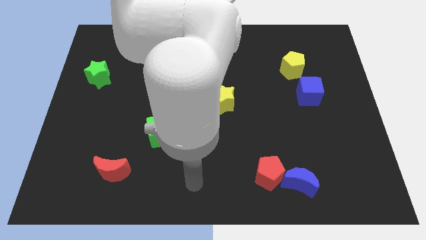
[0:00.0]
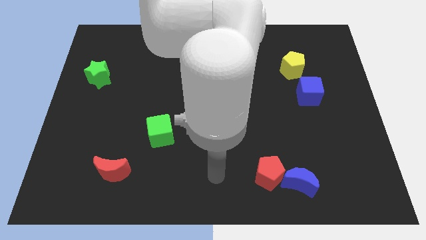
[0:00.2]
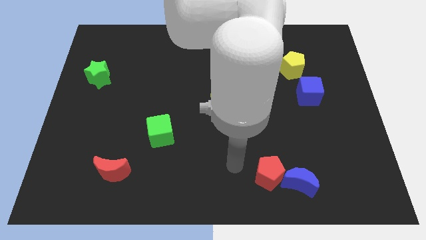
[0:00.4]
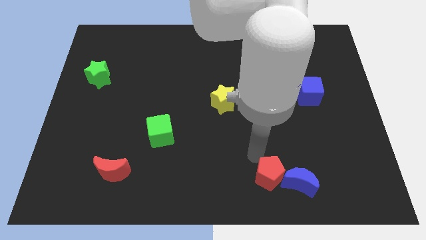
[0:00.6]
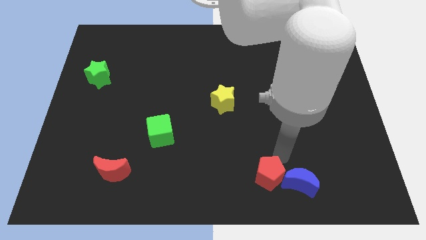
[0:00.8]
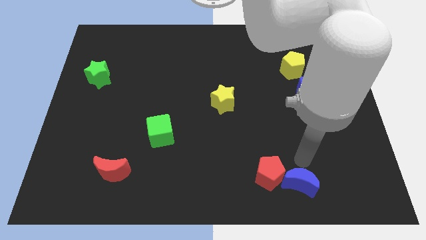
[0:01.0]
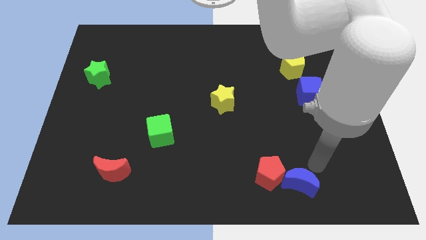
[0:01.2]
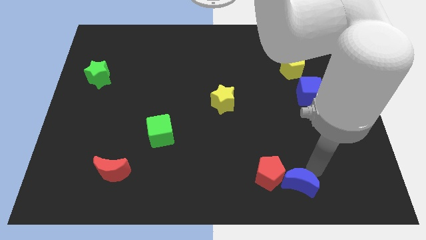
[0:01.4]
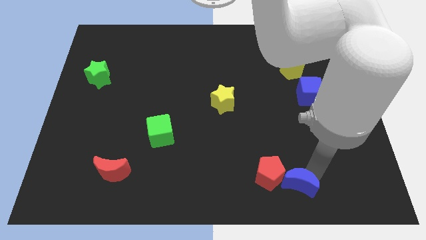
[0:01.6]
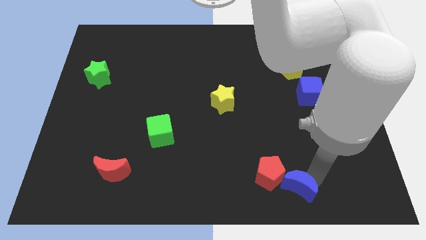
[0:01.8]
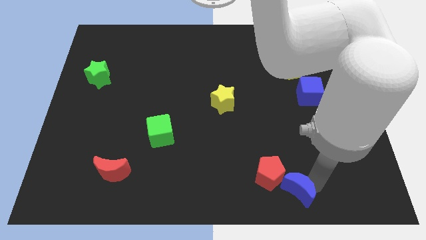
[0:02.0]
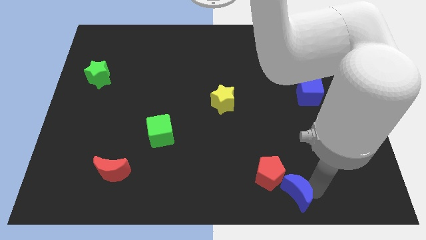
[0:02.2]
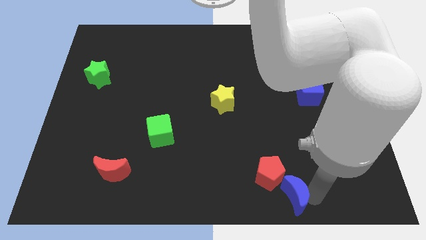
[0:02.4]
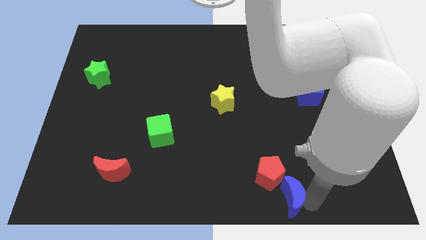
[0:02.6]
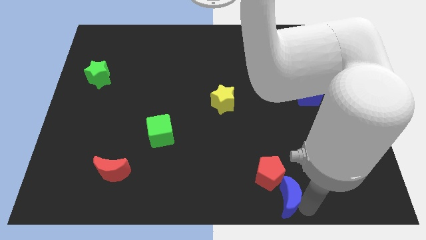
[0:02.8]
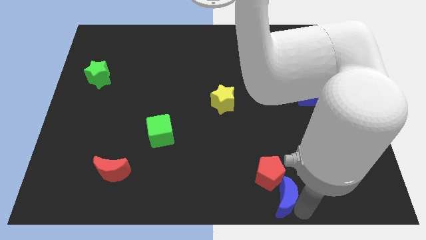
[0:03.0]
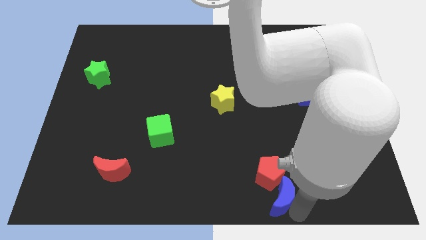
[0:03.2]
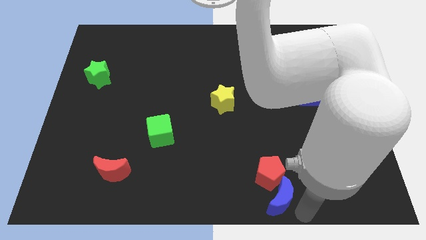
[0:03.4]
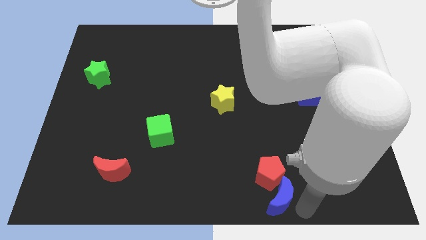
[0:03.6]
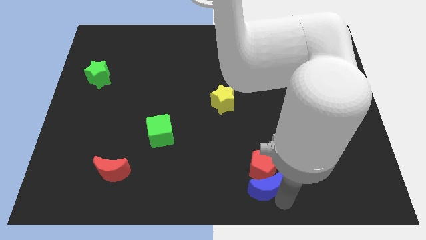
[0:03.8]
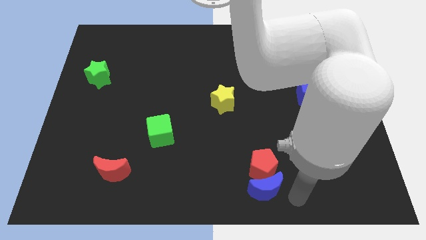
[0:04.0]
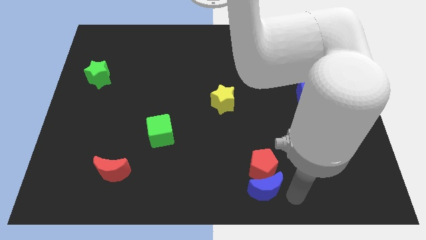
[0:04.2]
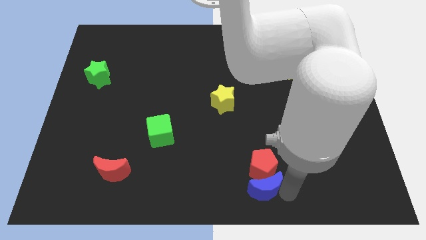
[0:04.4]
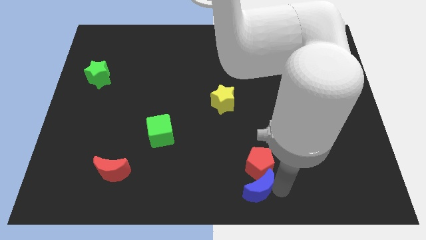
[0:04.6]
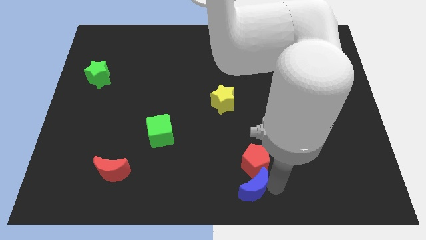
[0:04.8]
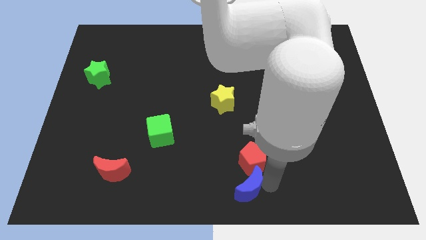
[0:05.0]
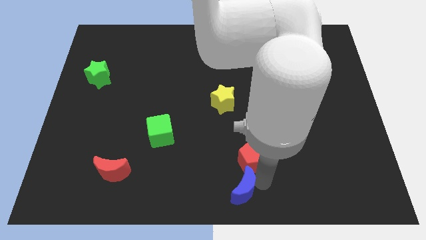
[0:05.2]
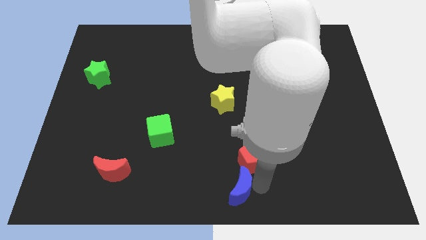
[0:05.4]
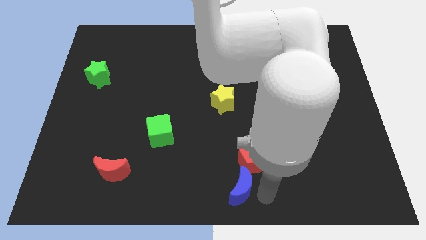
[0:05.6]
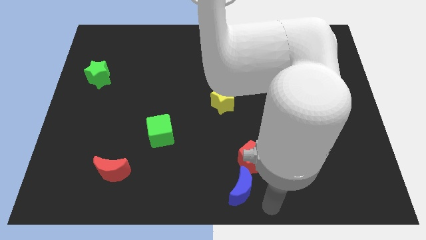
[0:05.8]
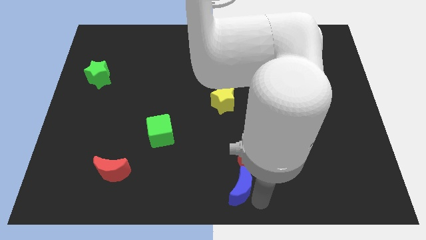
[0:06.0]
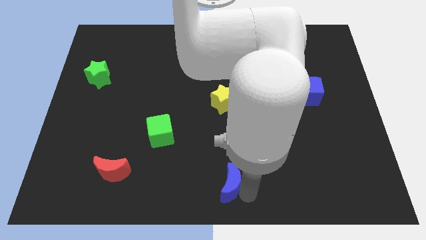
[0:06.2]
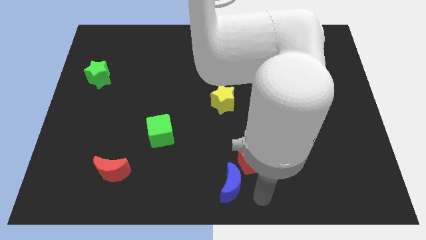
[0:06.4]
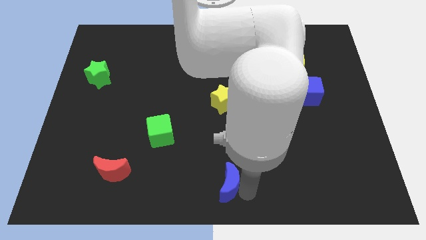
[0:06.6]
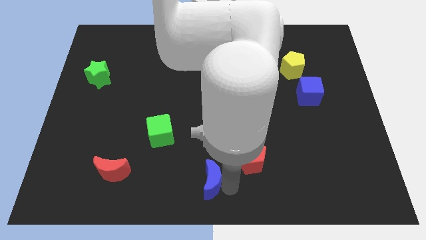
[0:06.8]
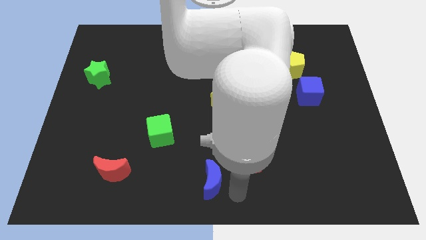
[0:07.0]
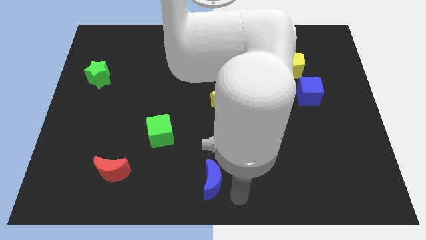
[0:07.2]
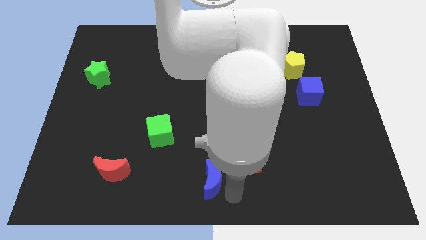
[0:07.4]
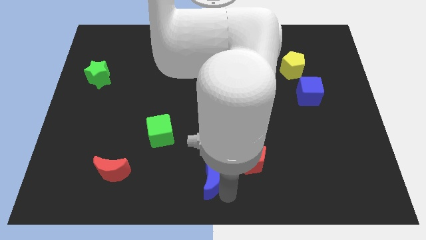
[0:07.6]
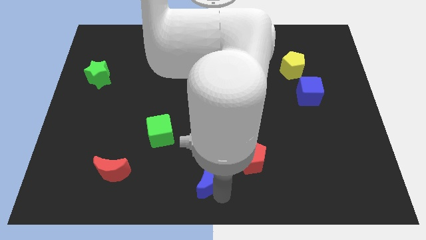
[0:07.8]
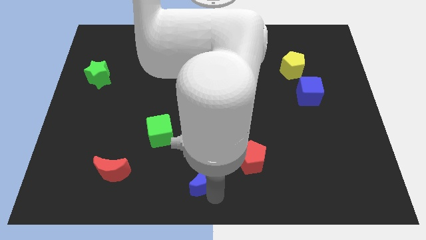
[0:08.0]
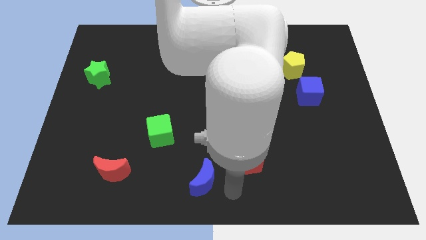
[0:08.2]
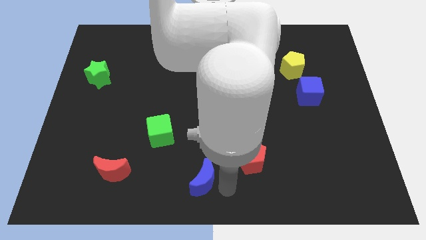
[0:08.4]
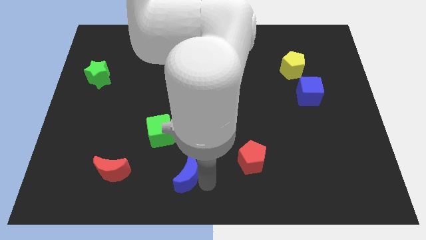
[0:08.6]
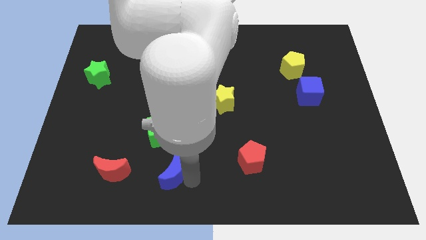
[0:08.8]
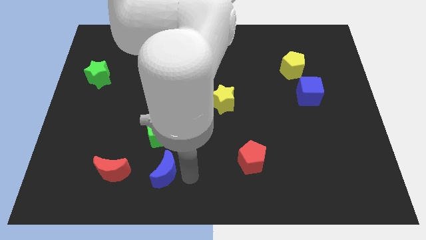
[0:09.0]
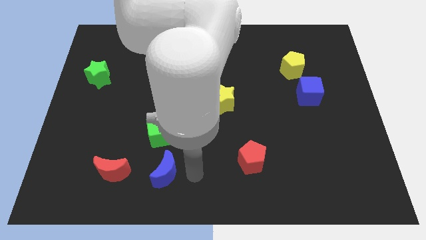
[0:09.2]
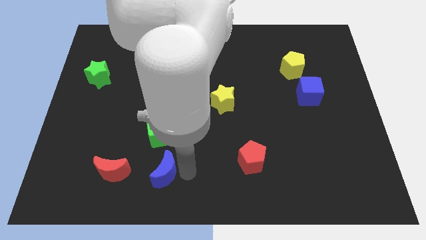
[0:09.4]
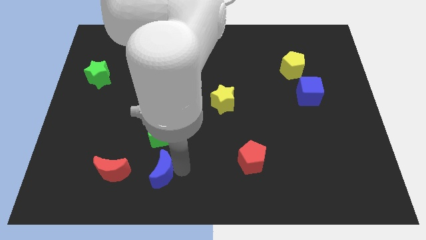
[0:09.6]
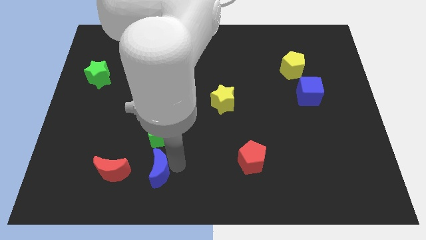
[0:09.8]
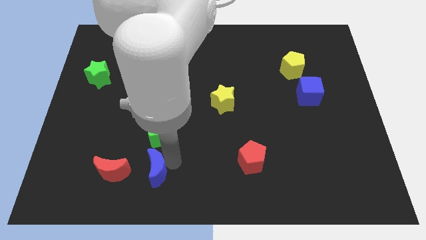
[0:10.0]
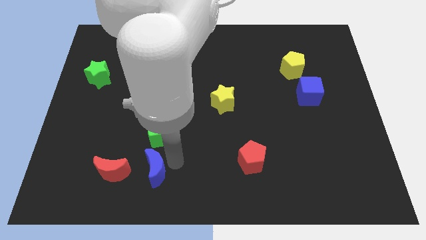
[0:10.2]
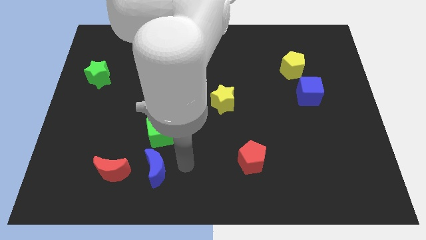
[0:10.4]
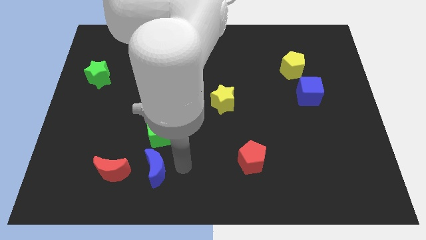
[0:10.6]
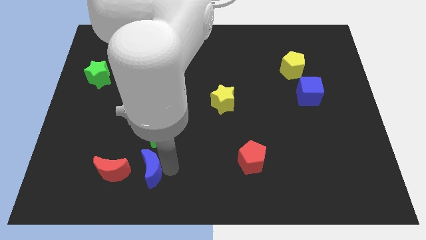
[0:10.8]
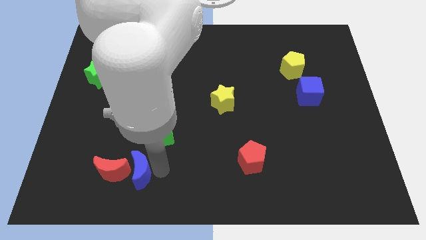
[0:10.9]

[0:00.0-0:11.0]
push the blue moon close to the red moon

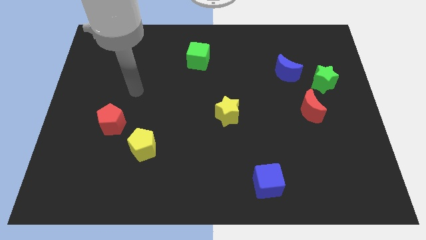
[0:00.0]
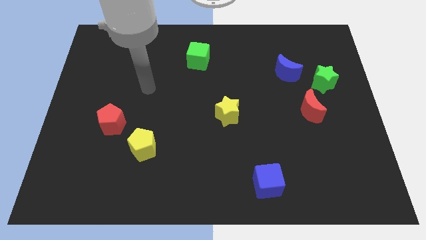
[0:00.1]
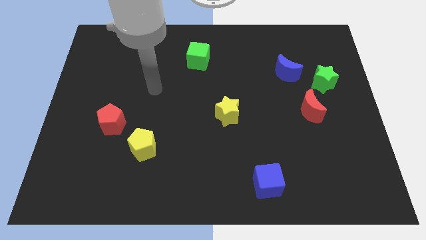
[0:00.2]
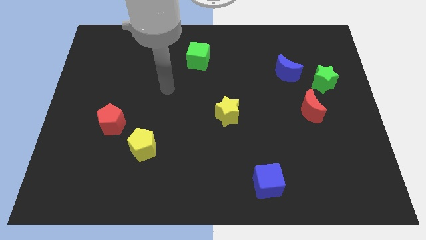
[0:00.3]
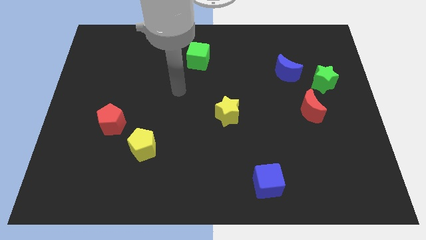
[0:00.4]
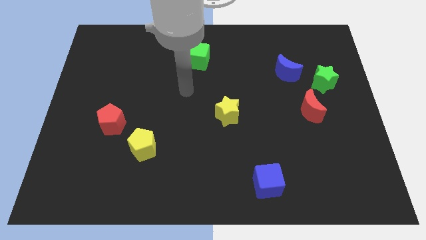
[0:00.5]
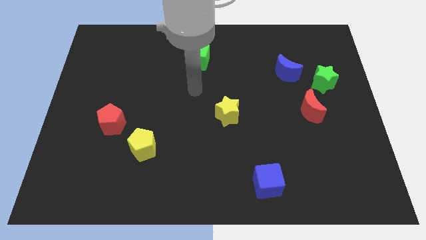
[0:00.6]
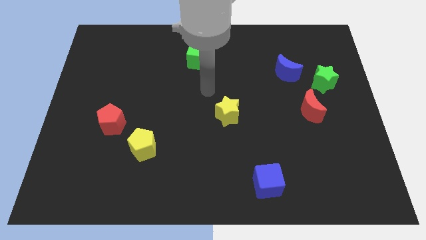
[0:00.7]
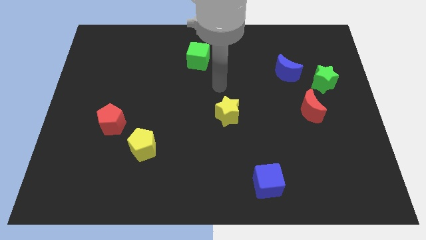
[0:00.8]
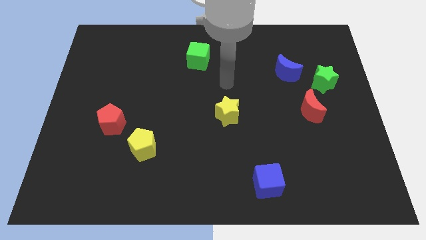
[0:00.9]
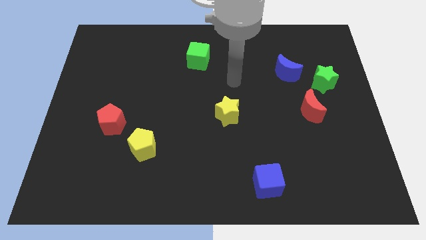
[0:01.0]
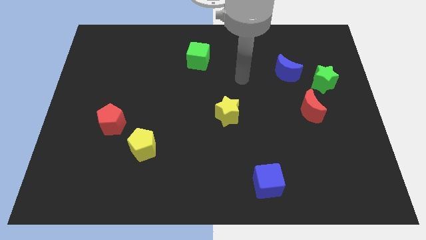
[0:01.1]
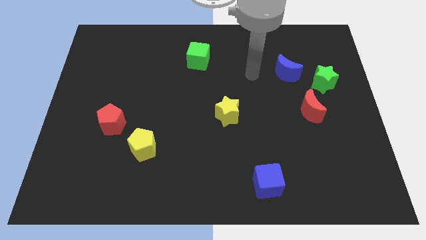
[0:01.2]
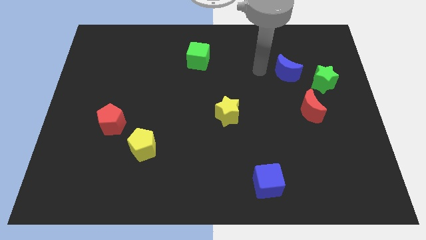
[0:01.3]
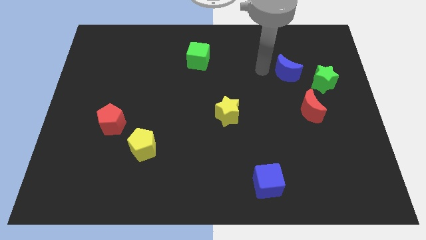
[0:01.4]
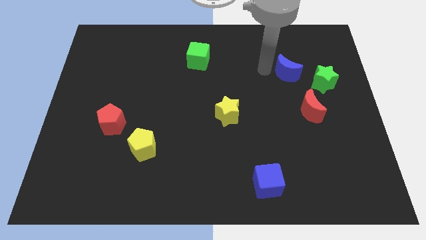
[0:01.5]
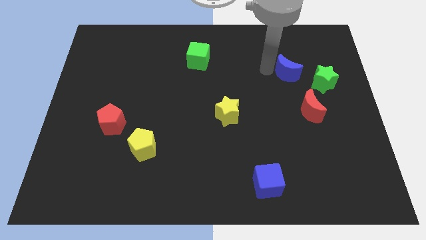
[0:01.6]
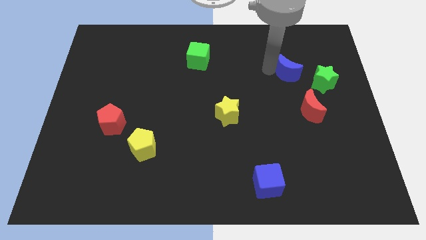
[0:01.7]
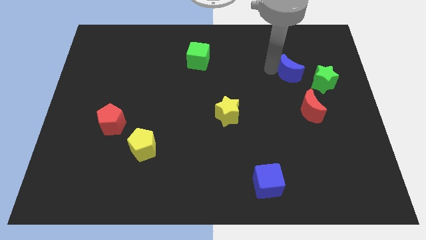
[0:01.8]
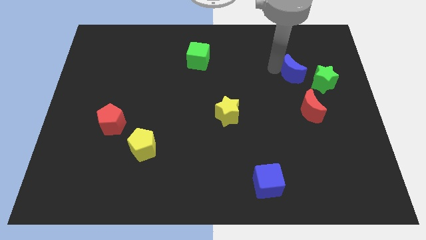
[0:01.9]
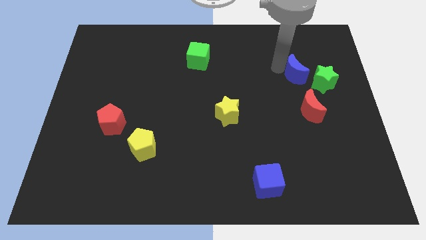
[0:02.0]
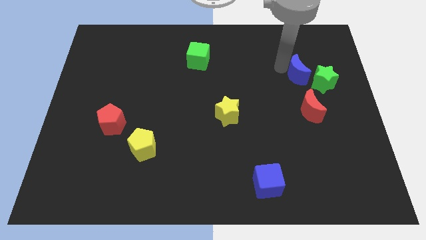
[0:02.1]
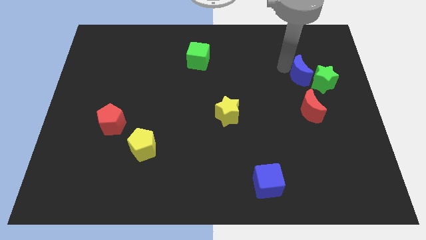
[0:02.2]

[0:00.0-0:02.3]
put the blue moon to the green star
